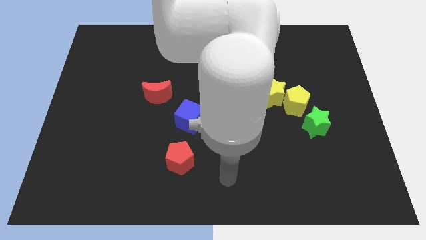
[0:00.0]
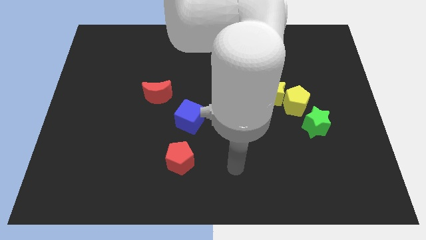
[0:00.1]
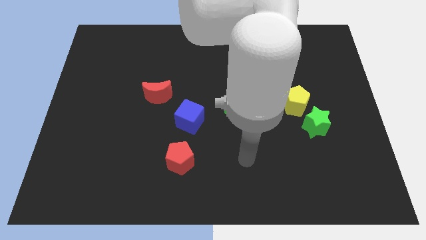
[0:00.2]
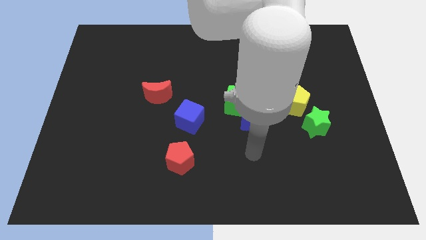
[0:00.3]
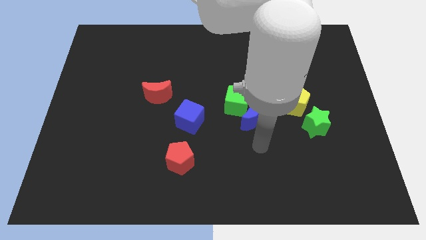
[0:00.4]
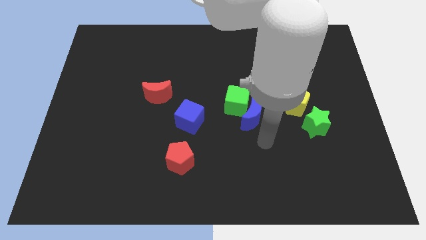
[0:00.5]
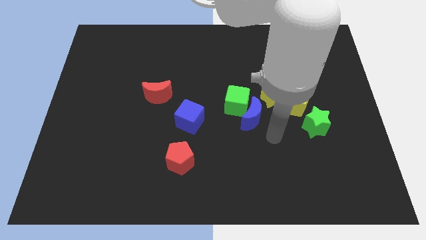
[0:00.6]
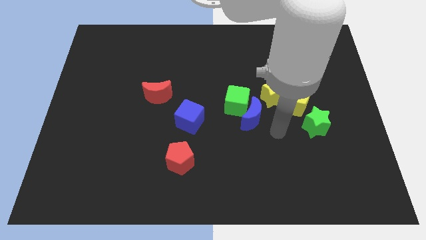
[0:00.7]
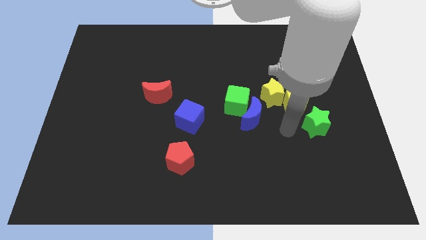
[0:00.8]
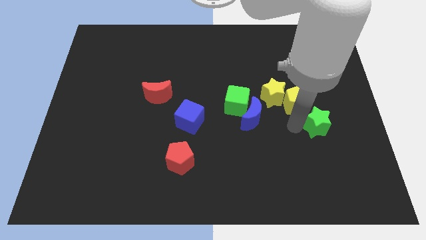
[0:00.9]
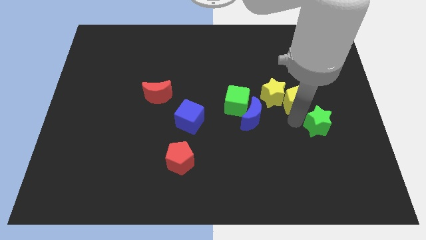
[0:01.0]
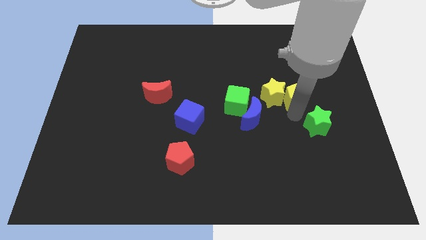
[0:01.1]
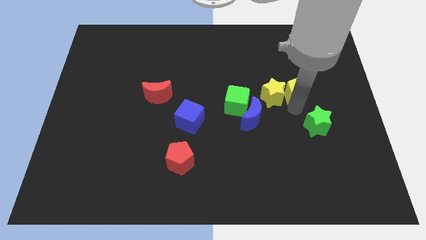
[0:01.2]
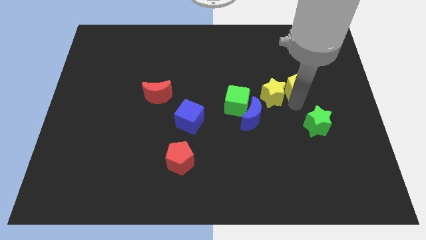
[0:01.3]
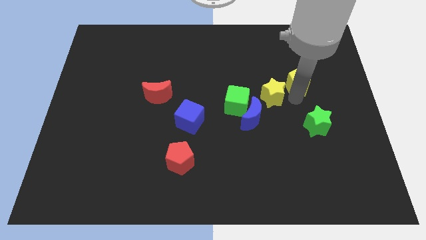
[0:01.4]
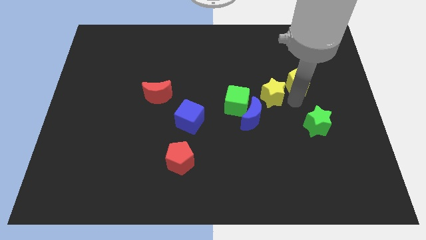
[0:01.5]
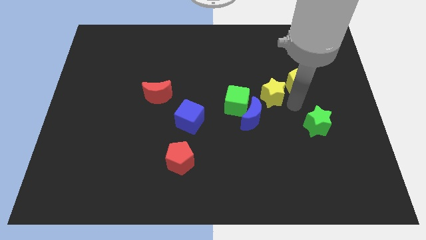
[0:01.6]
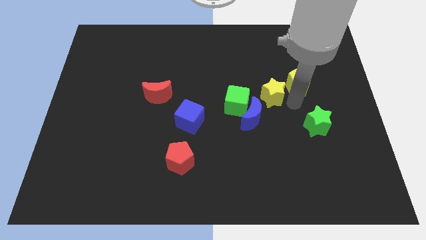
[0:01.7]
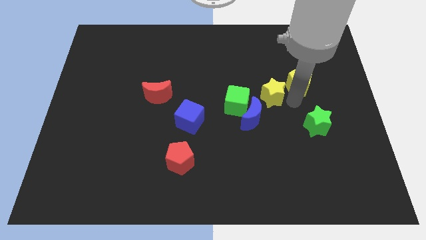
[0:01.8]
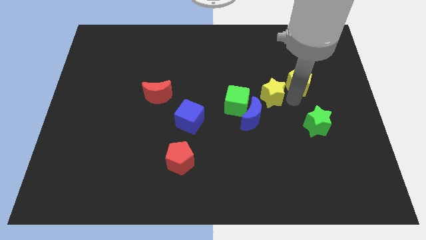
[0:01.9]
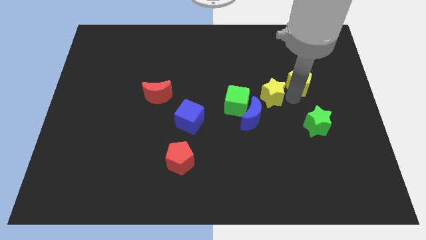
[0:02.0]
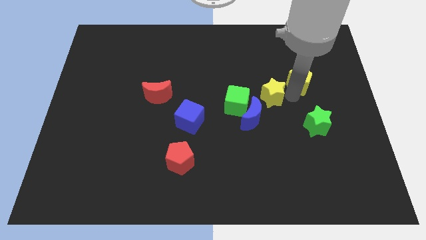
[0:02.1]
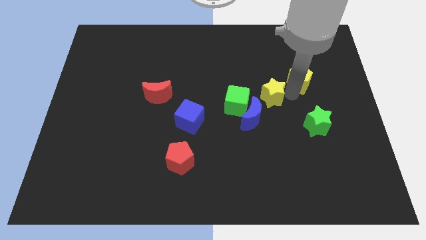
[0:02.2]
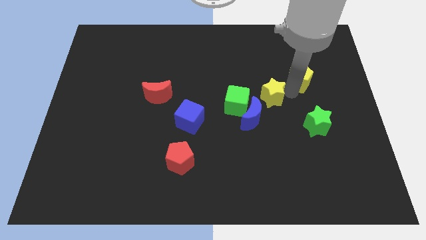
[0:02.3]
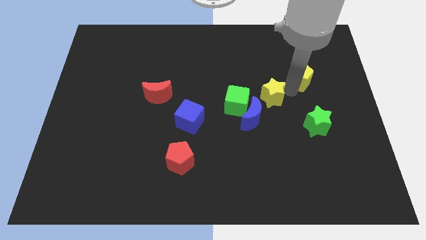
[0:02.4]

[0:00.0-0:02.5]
separate the yellow pentagon from the yellow star and green star

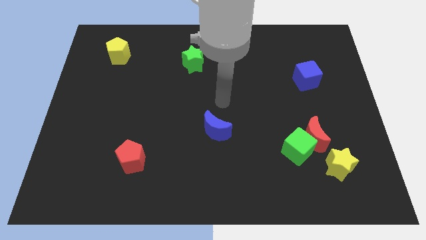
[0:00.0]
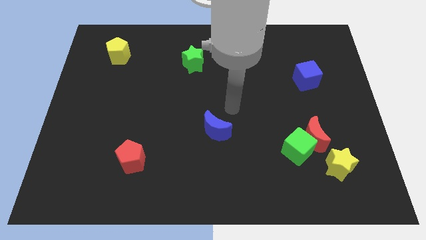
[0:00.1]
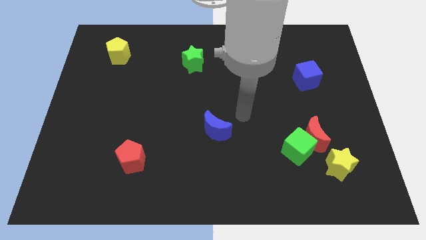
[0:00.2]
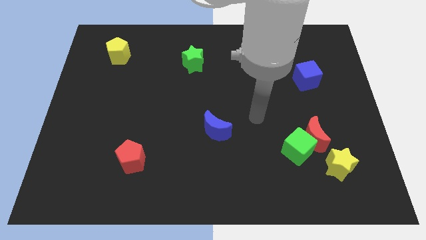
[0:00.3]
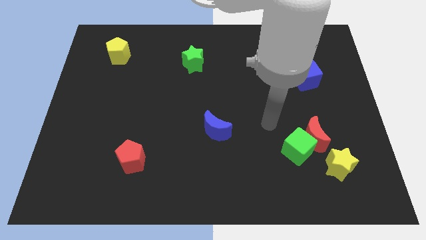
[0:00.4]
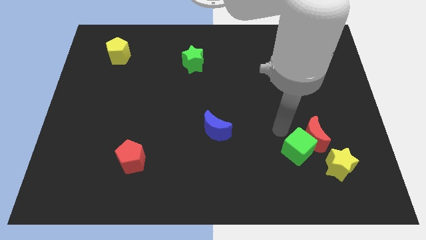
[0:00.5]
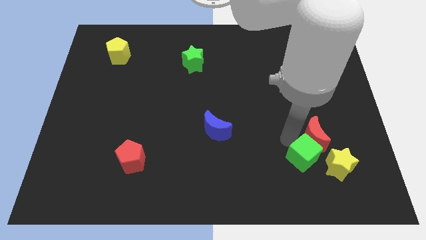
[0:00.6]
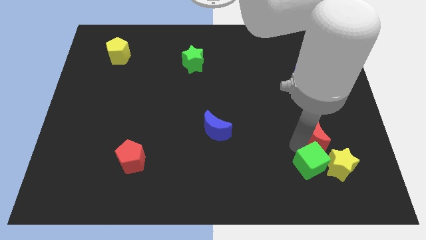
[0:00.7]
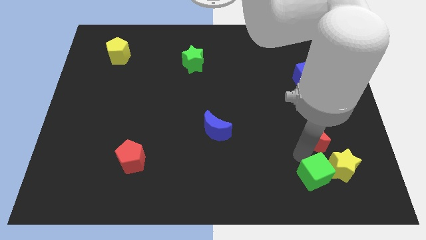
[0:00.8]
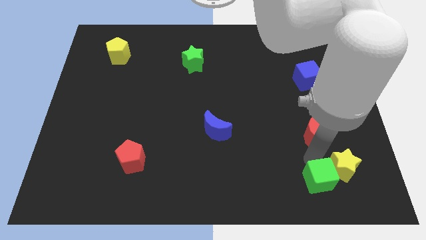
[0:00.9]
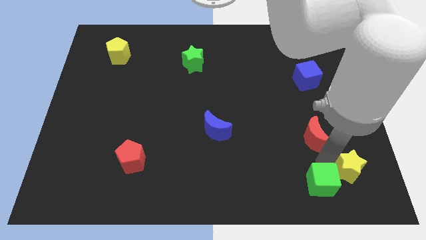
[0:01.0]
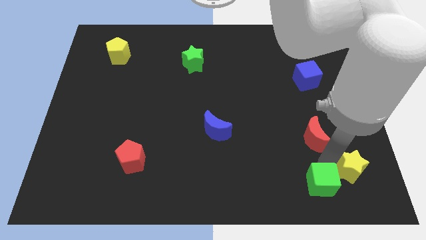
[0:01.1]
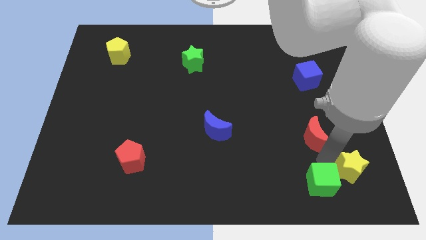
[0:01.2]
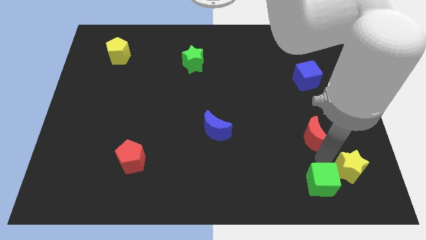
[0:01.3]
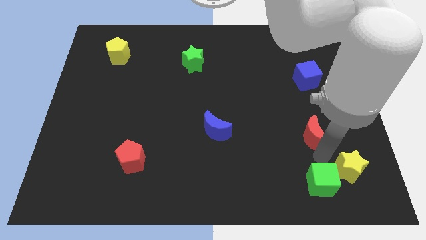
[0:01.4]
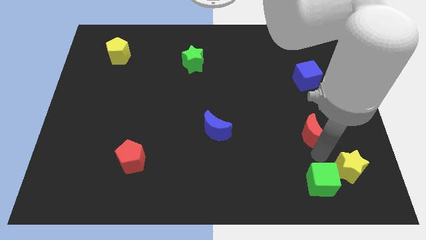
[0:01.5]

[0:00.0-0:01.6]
move the red moon away from the green cube and yellow star

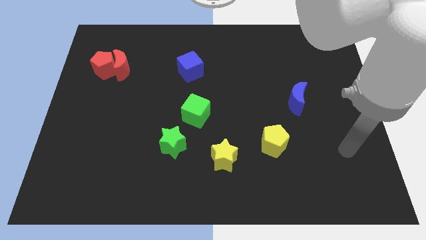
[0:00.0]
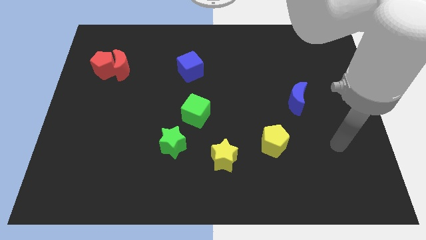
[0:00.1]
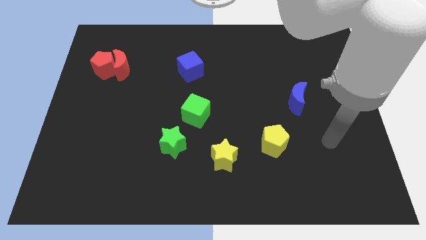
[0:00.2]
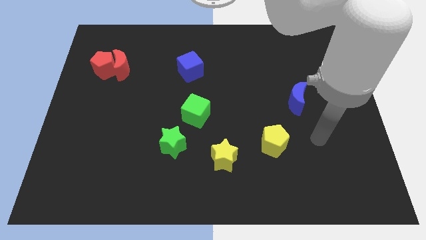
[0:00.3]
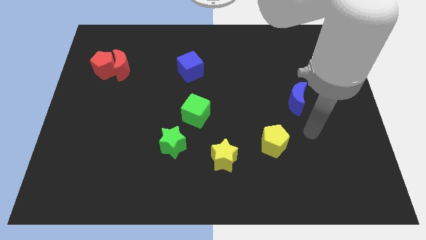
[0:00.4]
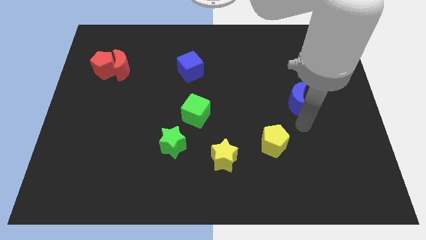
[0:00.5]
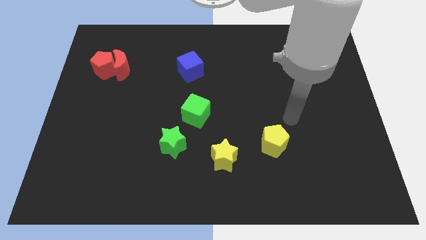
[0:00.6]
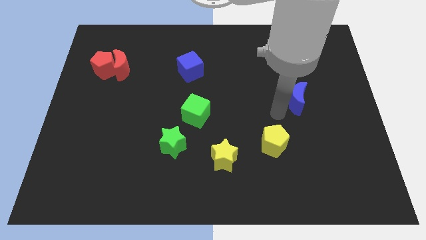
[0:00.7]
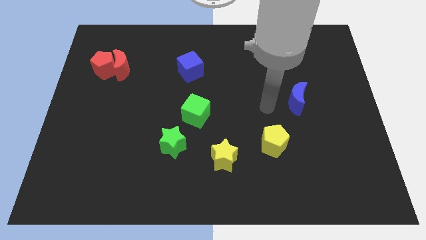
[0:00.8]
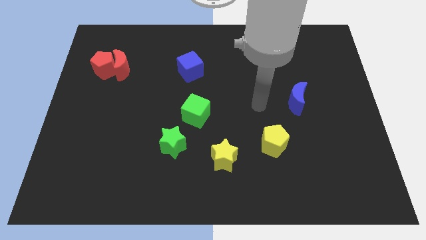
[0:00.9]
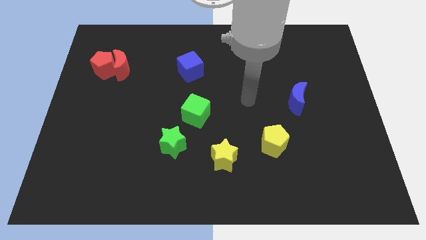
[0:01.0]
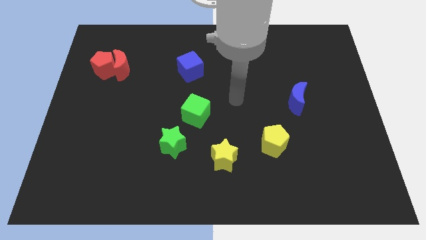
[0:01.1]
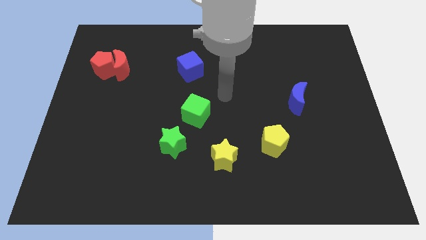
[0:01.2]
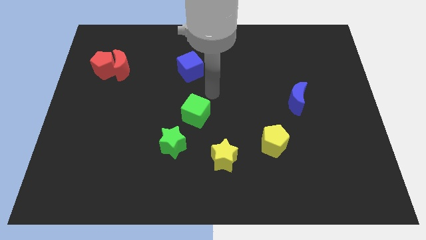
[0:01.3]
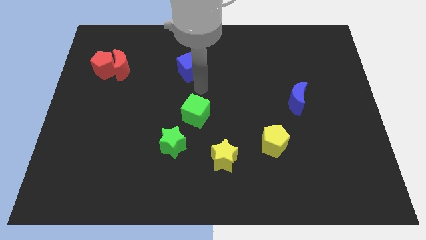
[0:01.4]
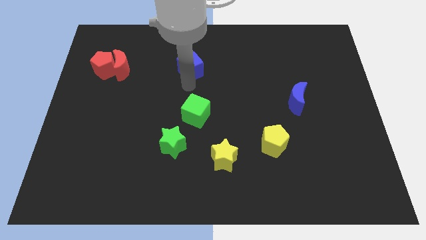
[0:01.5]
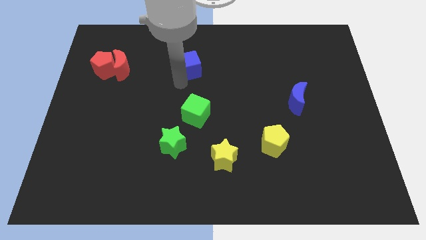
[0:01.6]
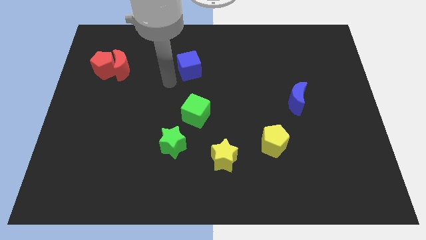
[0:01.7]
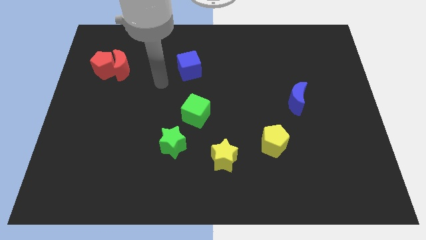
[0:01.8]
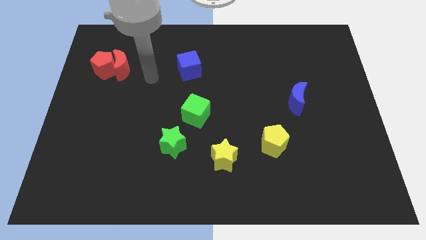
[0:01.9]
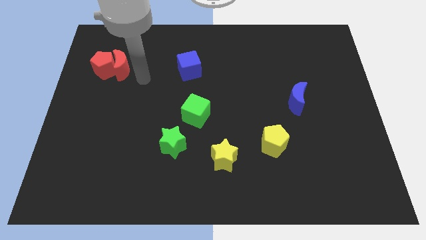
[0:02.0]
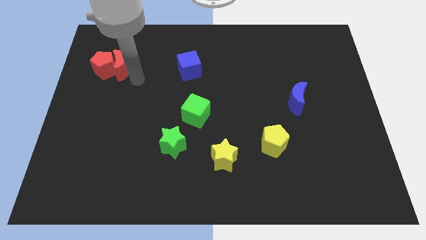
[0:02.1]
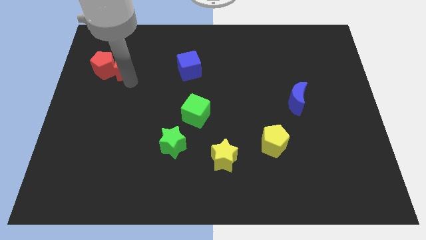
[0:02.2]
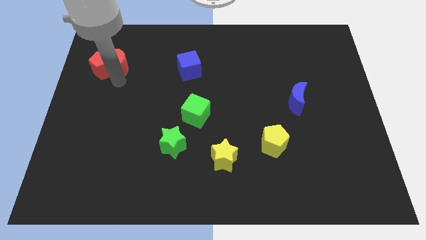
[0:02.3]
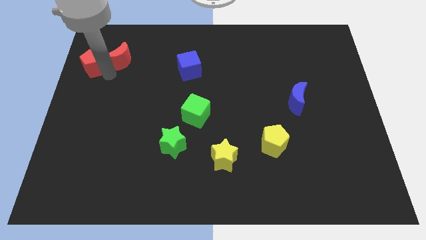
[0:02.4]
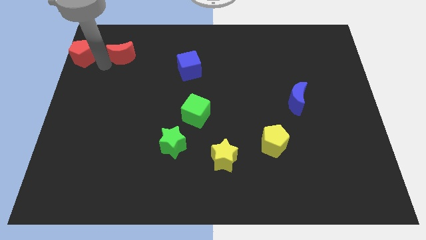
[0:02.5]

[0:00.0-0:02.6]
pull the red moon apart from the red pentagon

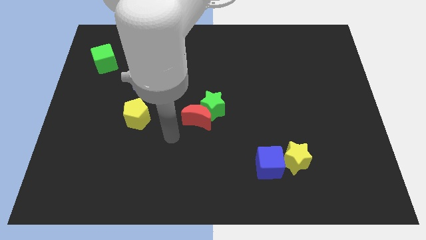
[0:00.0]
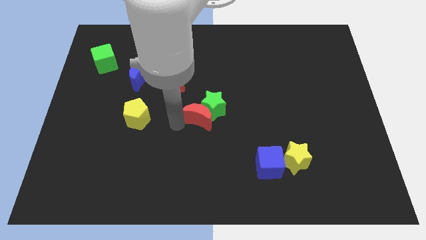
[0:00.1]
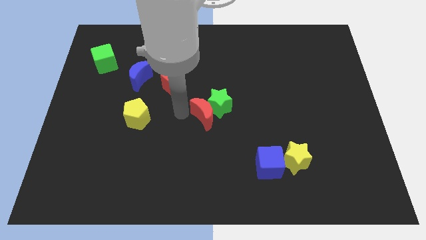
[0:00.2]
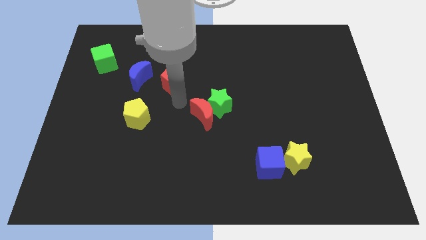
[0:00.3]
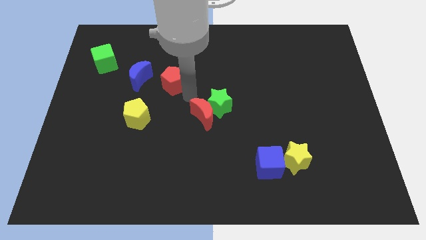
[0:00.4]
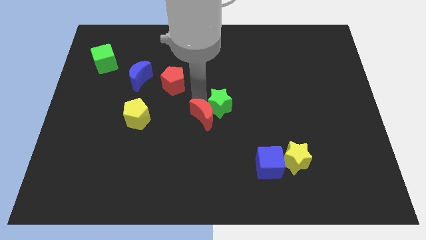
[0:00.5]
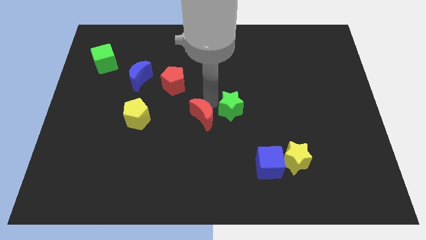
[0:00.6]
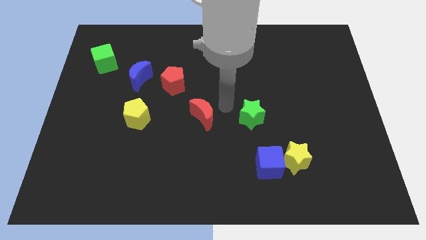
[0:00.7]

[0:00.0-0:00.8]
separate the red moon from the green star

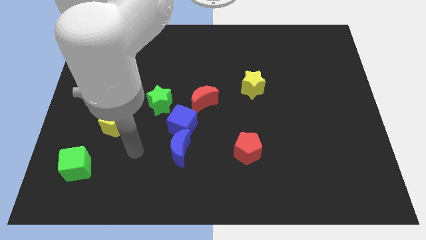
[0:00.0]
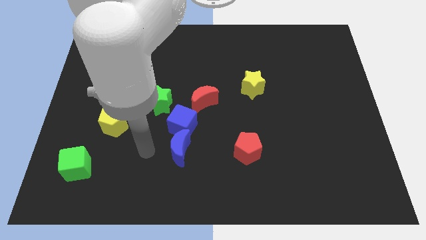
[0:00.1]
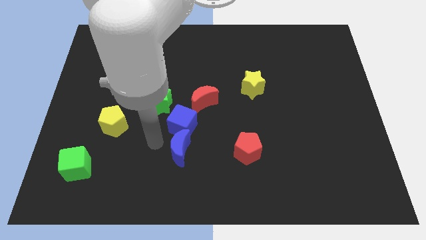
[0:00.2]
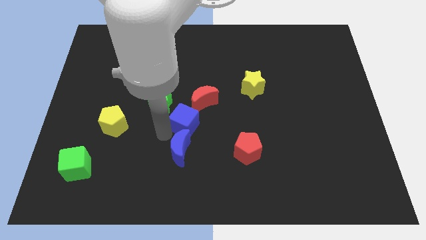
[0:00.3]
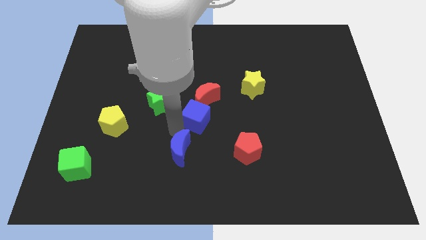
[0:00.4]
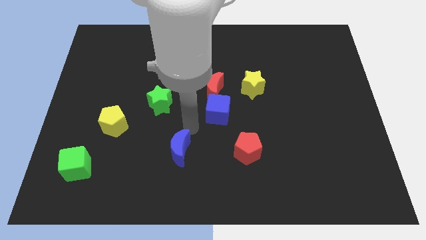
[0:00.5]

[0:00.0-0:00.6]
move the blue moon away from the blue cube

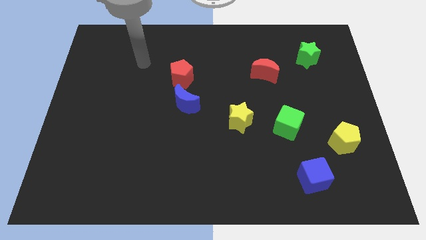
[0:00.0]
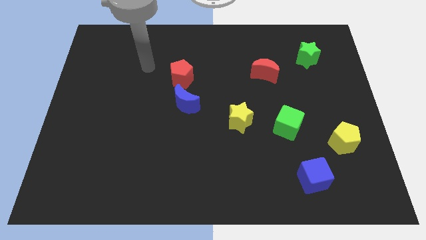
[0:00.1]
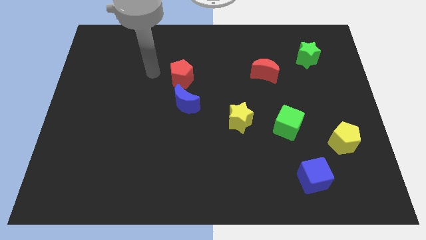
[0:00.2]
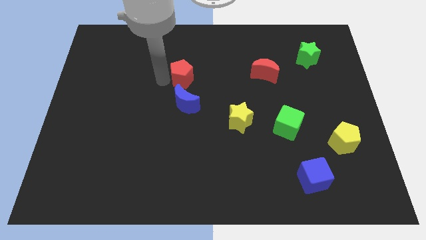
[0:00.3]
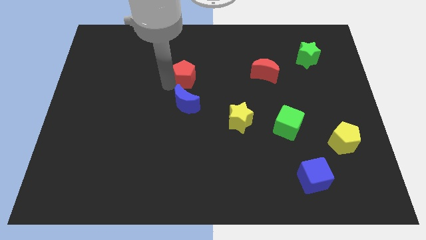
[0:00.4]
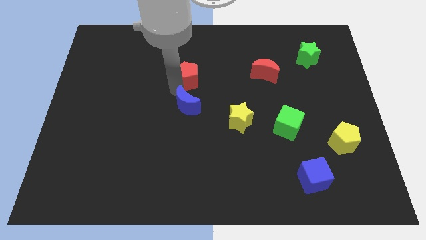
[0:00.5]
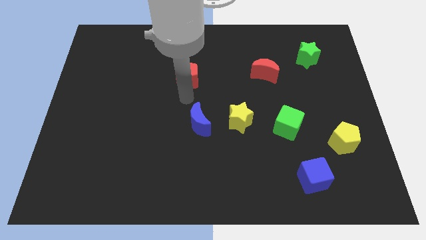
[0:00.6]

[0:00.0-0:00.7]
separate the red pentagon from the blue moon

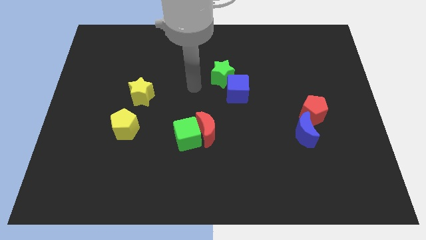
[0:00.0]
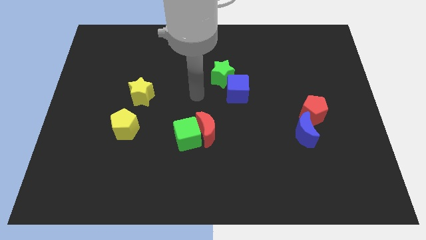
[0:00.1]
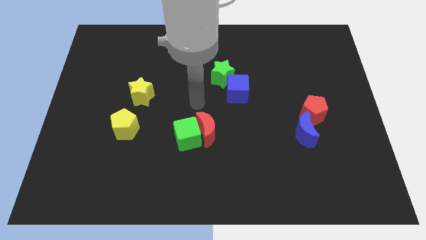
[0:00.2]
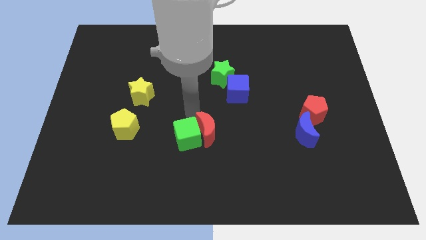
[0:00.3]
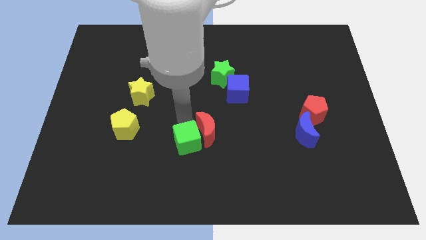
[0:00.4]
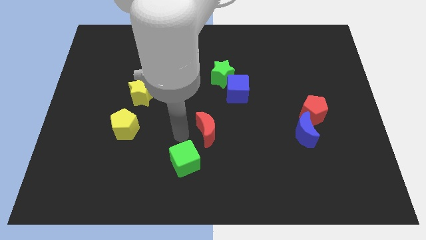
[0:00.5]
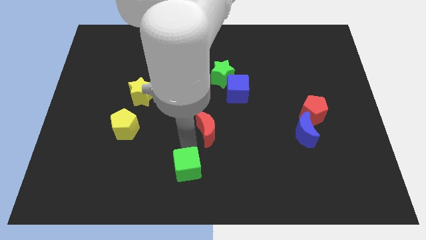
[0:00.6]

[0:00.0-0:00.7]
move the red moon away from the green cube
